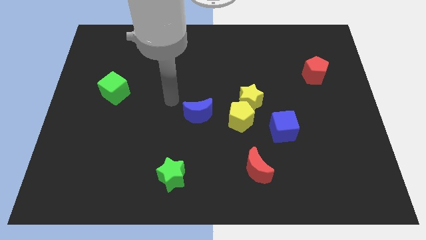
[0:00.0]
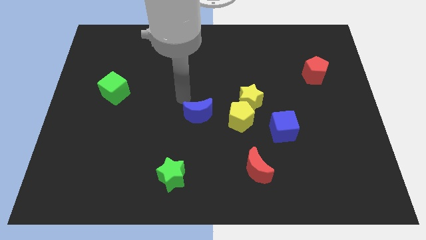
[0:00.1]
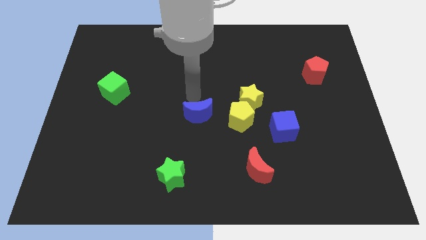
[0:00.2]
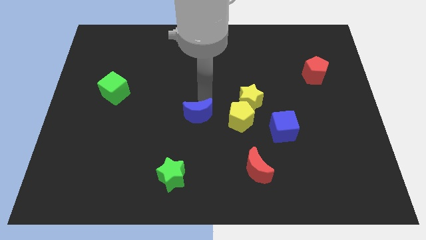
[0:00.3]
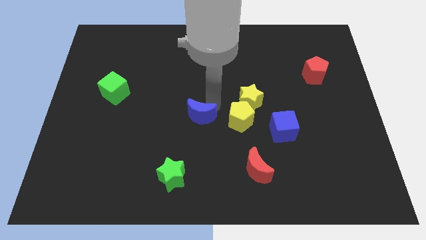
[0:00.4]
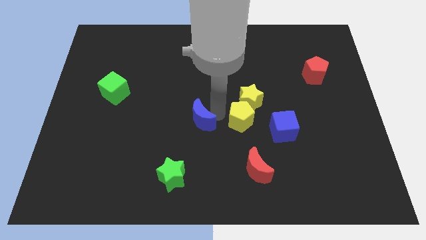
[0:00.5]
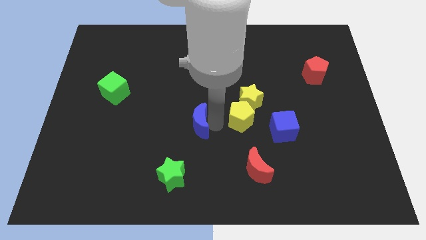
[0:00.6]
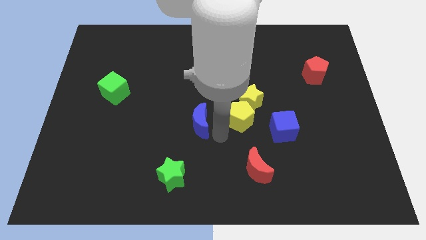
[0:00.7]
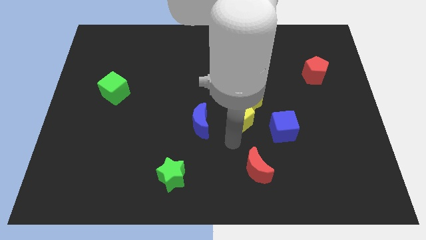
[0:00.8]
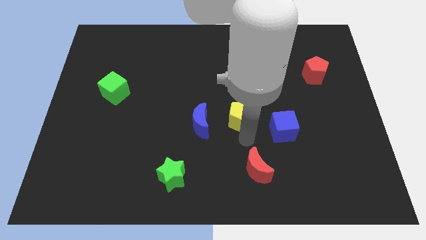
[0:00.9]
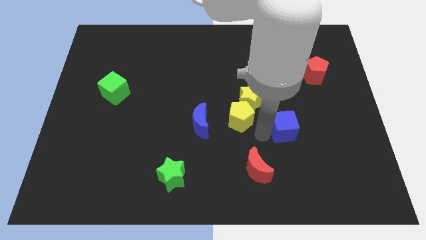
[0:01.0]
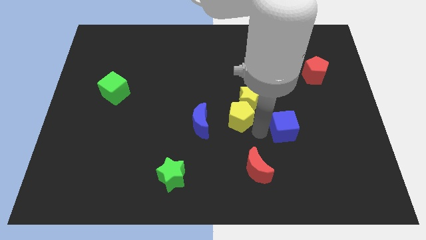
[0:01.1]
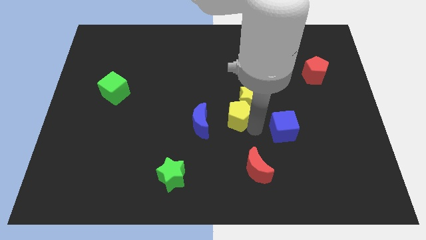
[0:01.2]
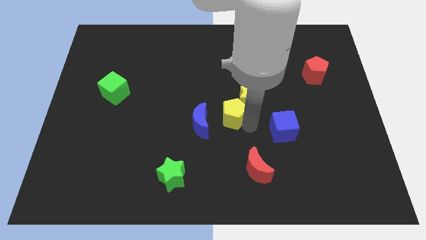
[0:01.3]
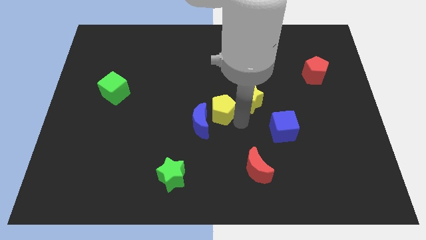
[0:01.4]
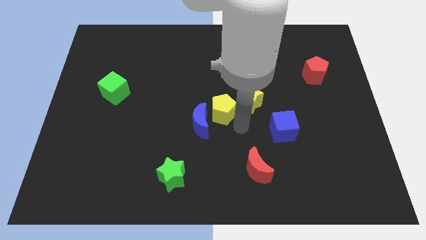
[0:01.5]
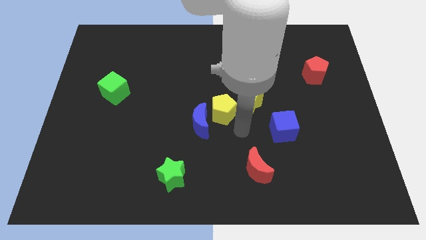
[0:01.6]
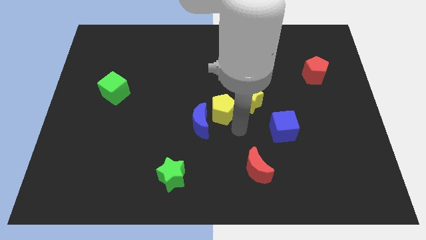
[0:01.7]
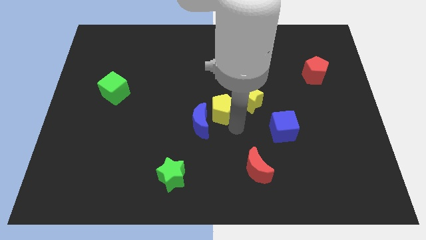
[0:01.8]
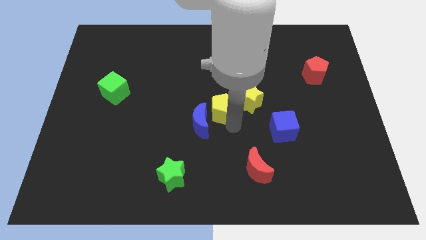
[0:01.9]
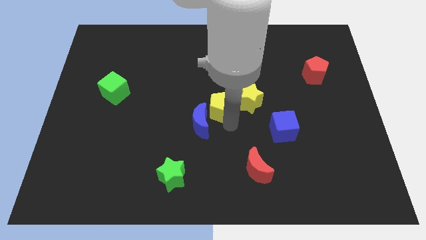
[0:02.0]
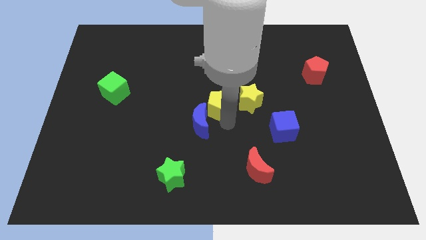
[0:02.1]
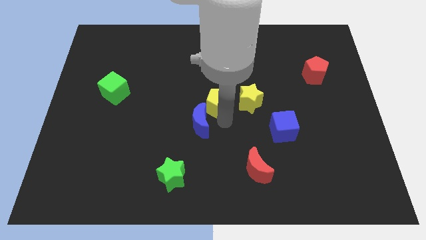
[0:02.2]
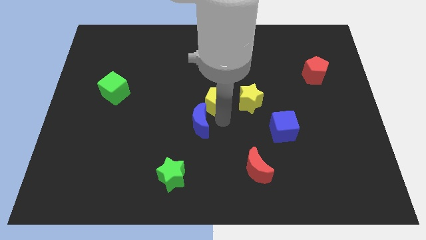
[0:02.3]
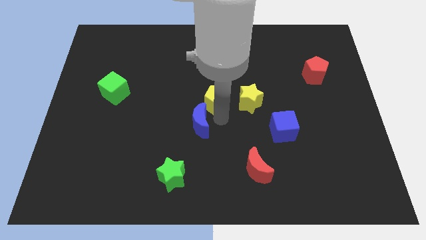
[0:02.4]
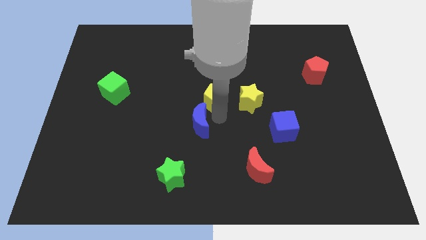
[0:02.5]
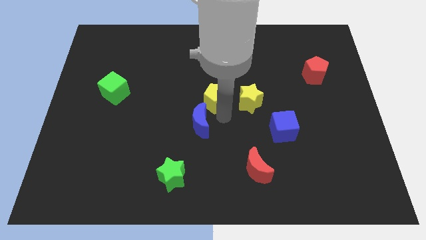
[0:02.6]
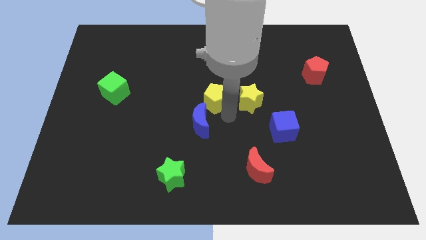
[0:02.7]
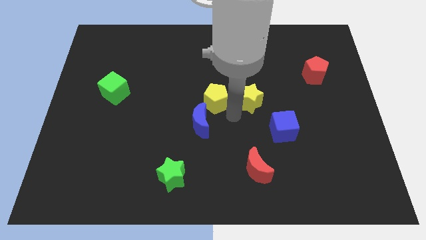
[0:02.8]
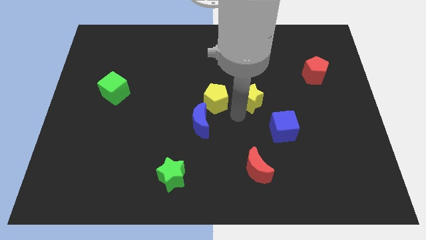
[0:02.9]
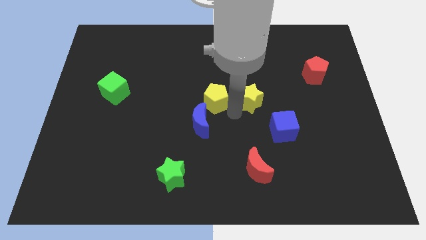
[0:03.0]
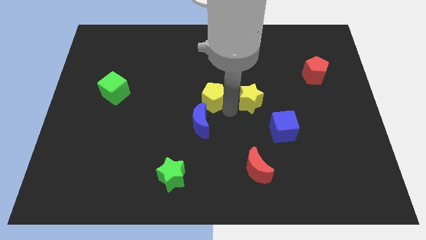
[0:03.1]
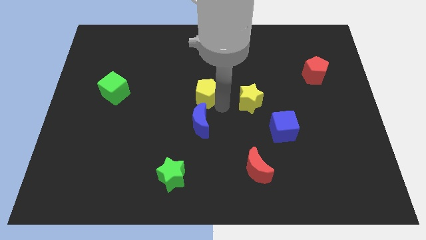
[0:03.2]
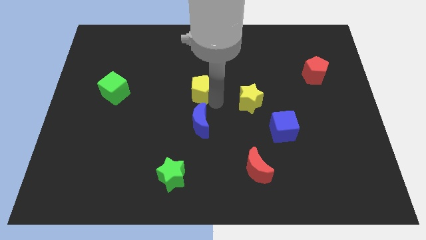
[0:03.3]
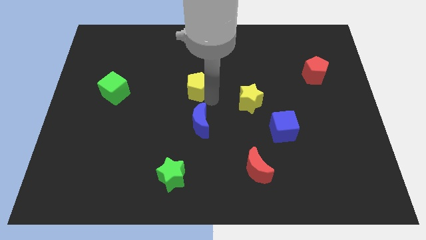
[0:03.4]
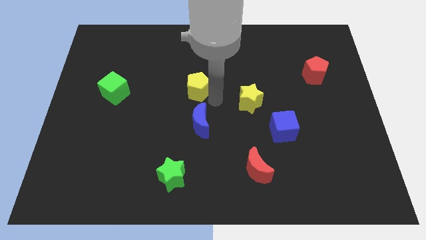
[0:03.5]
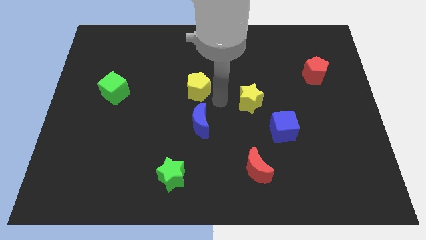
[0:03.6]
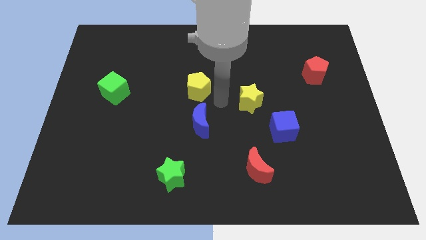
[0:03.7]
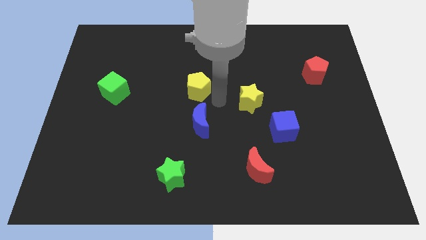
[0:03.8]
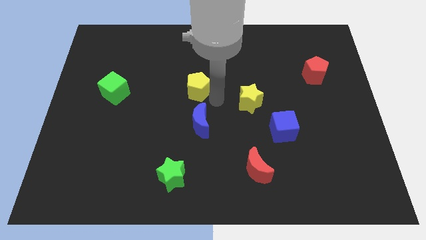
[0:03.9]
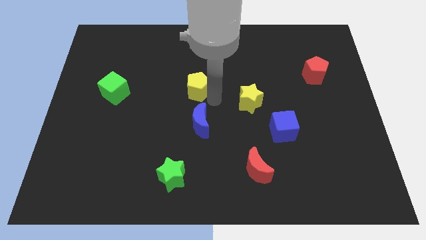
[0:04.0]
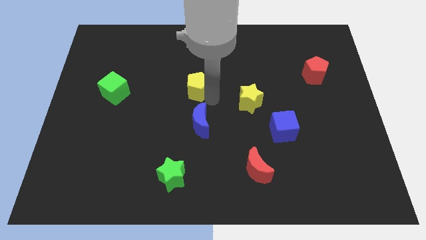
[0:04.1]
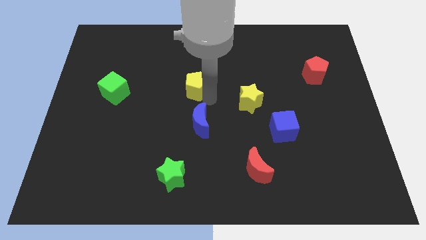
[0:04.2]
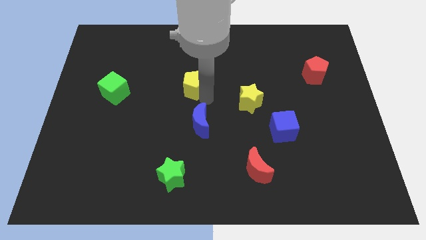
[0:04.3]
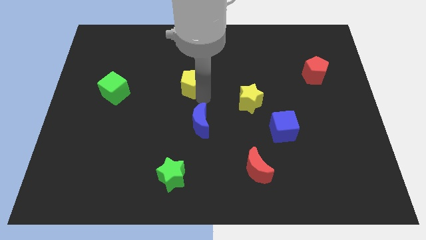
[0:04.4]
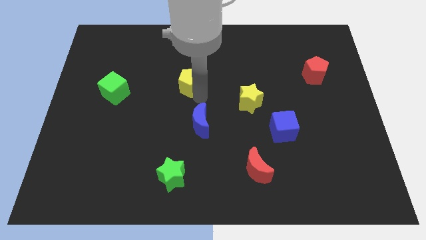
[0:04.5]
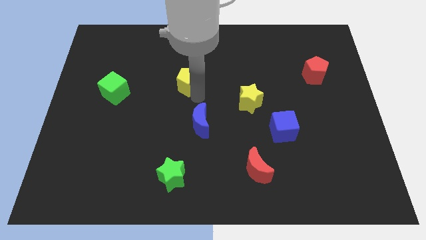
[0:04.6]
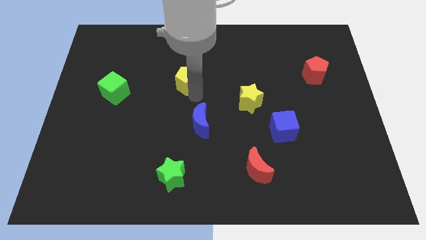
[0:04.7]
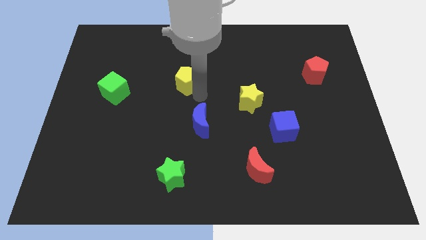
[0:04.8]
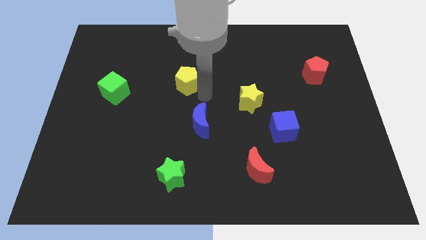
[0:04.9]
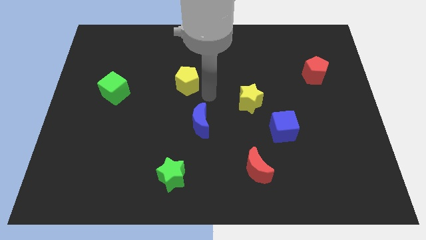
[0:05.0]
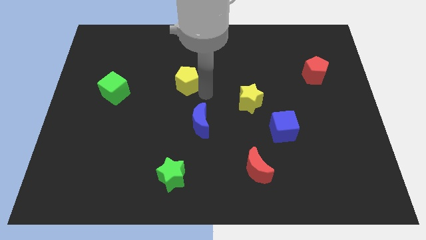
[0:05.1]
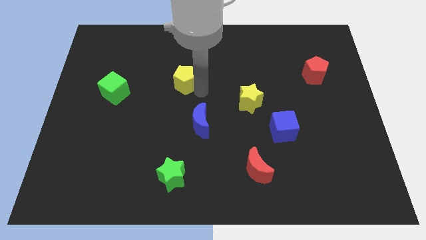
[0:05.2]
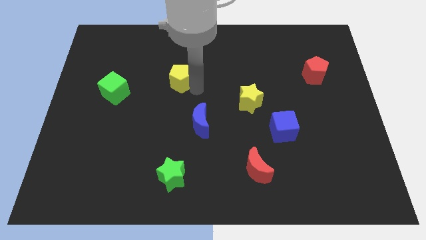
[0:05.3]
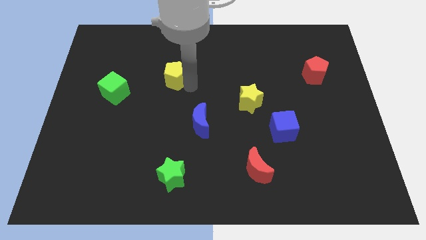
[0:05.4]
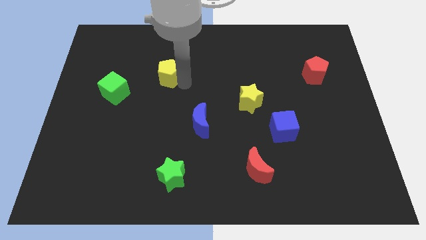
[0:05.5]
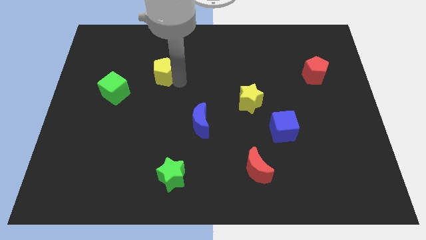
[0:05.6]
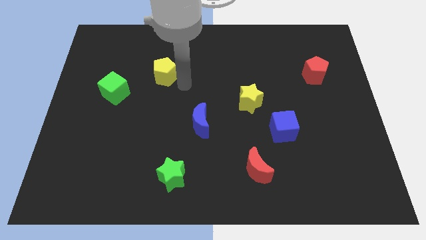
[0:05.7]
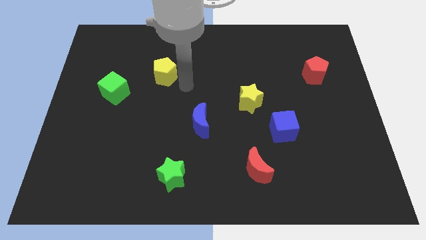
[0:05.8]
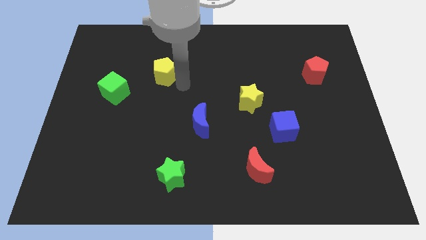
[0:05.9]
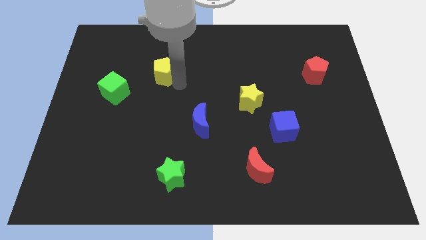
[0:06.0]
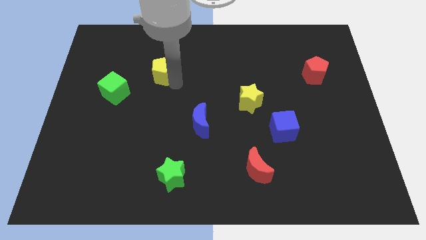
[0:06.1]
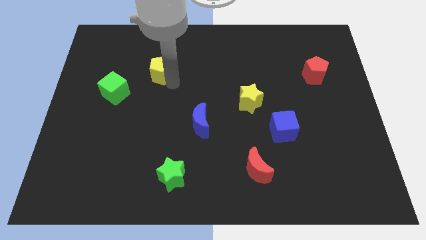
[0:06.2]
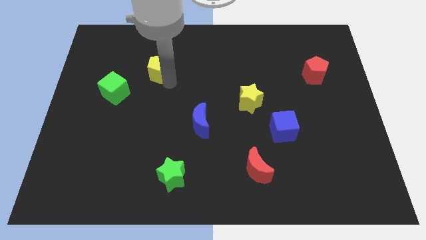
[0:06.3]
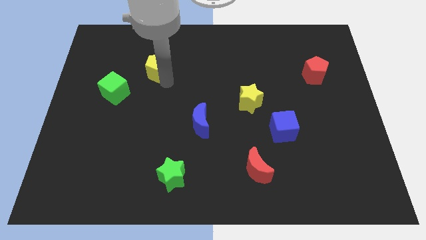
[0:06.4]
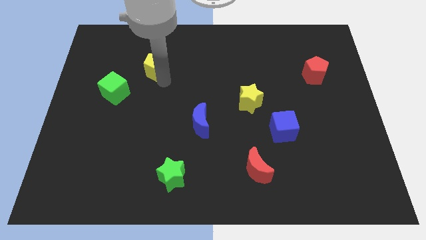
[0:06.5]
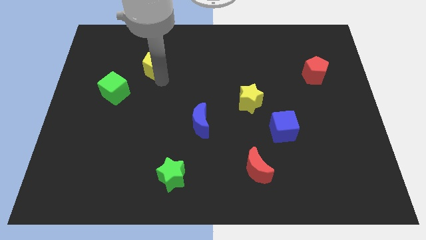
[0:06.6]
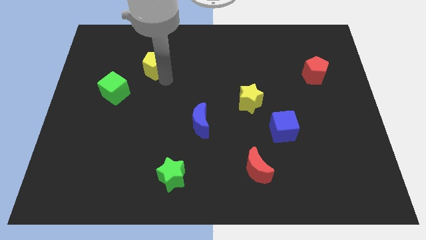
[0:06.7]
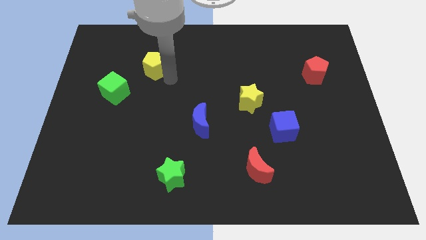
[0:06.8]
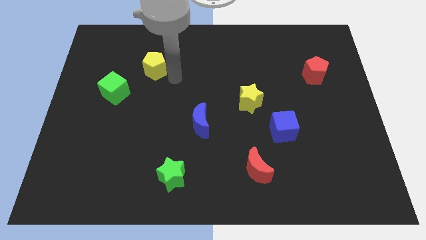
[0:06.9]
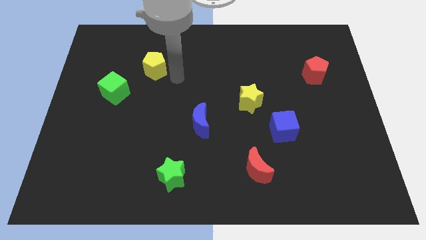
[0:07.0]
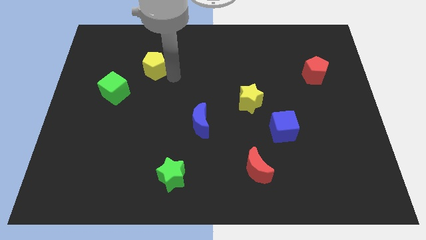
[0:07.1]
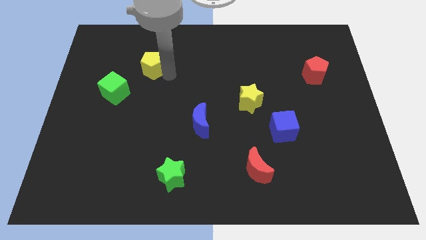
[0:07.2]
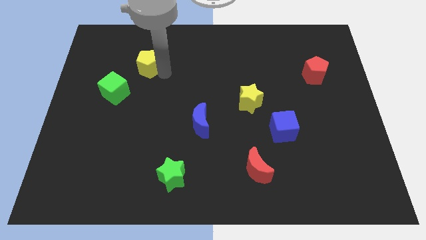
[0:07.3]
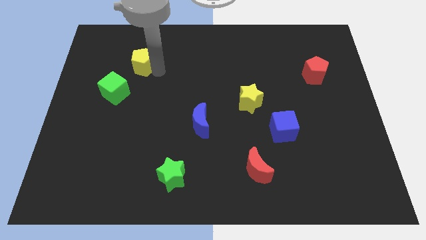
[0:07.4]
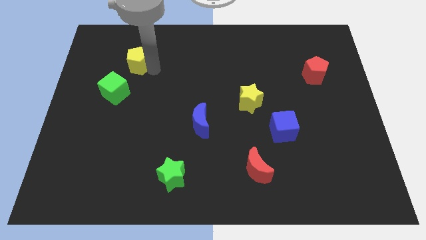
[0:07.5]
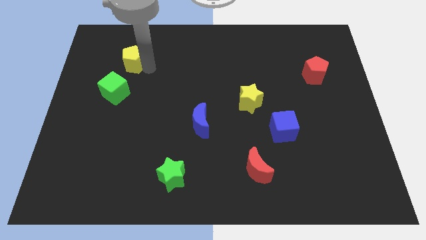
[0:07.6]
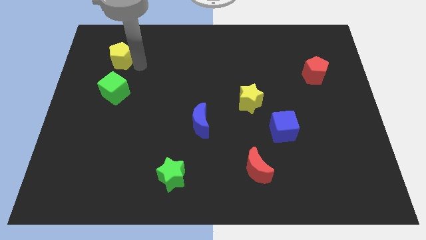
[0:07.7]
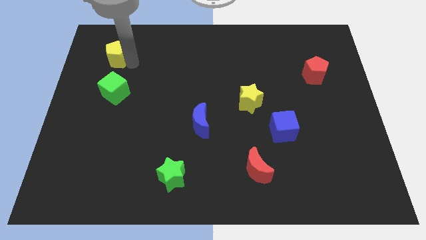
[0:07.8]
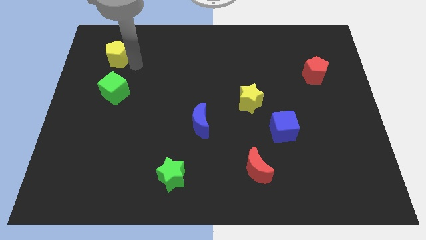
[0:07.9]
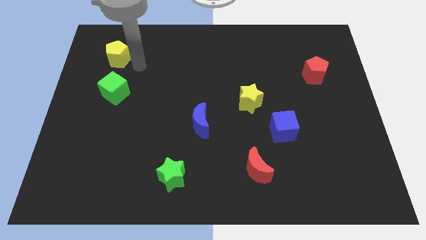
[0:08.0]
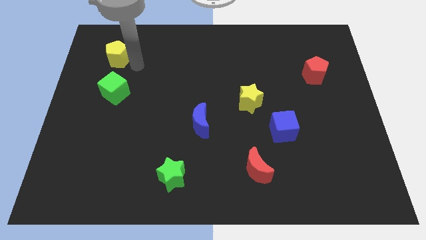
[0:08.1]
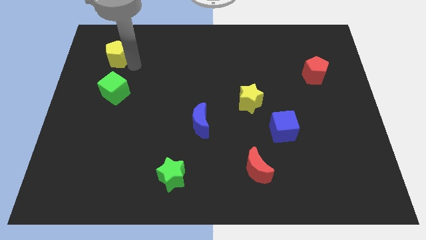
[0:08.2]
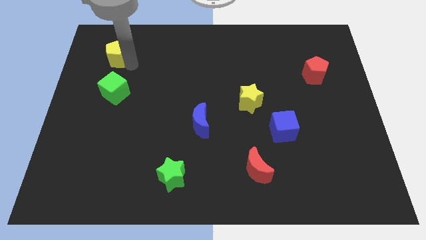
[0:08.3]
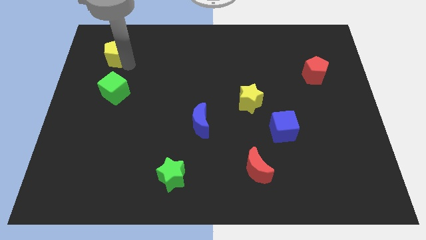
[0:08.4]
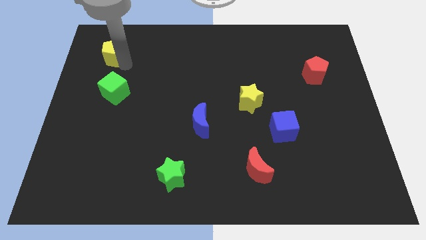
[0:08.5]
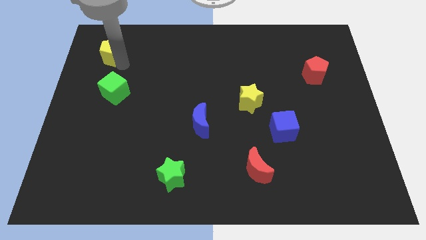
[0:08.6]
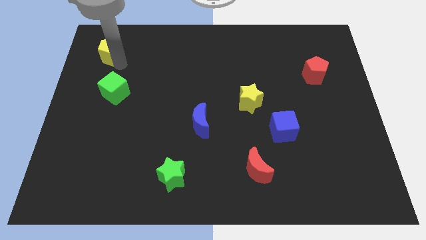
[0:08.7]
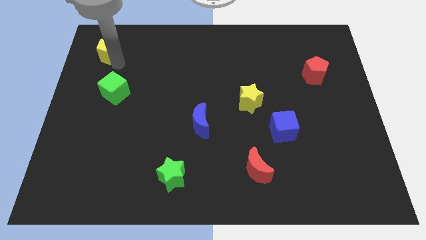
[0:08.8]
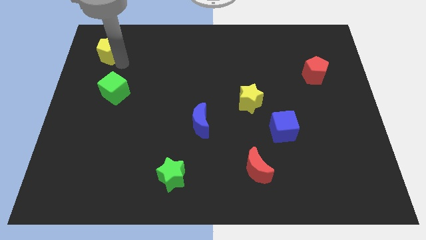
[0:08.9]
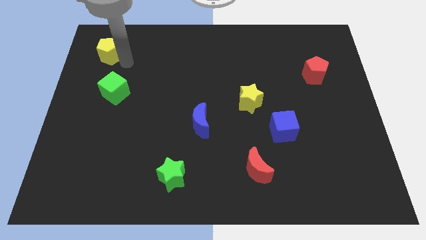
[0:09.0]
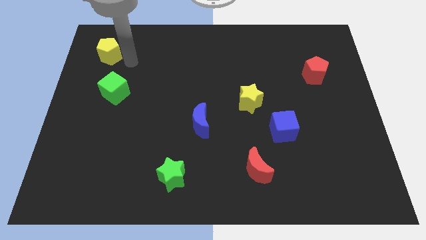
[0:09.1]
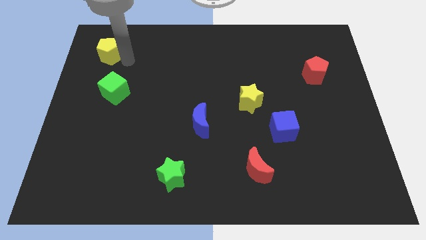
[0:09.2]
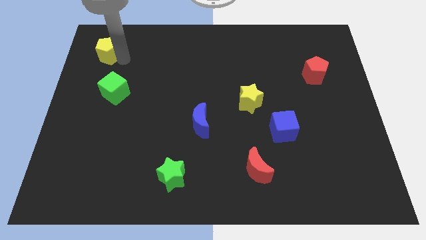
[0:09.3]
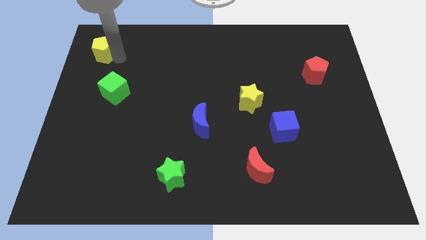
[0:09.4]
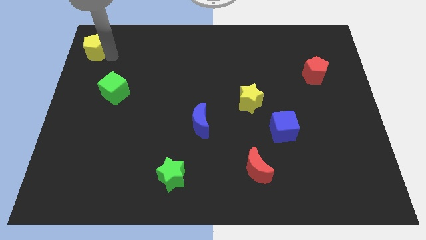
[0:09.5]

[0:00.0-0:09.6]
put the yellow pentagon to the upper left corner
